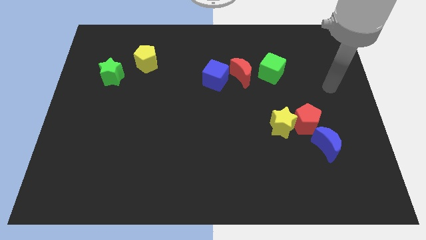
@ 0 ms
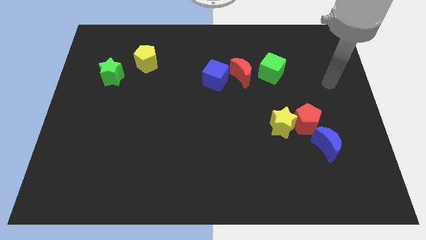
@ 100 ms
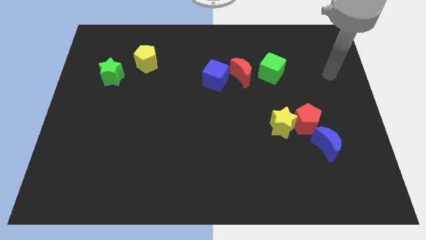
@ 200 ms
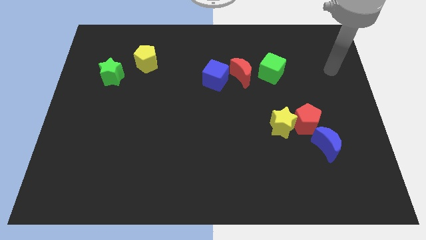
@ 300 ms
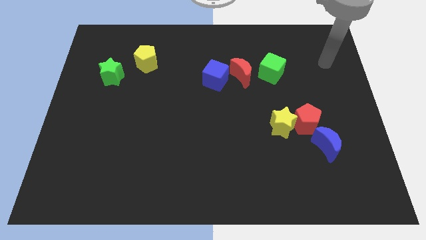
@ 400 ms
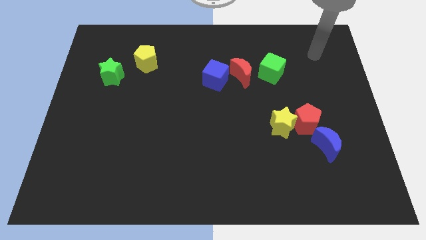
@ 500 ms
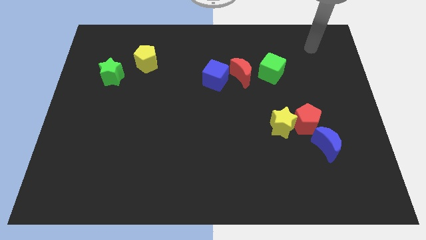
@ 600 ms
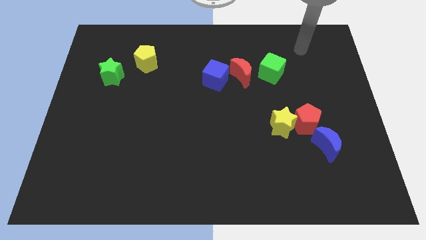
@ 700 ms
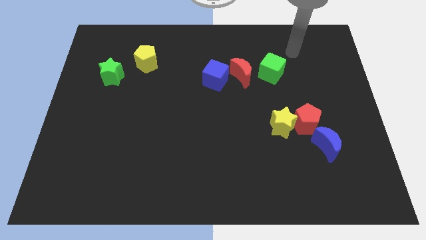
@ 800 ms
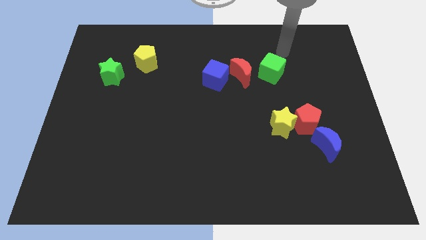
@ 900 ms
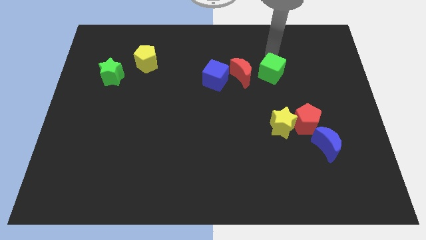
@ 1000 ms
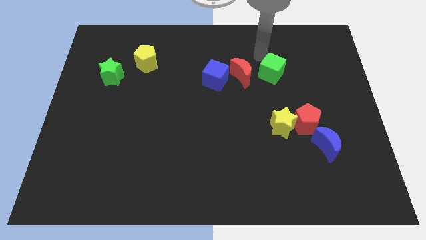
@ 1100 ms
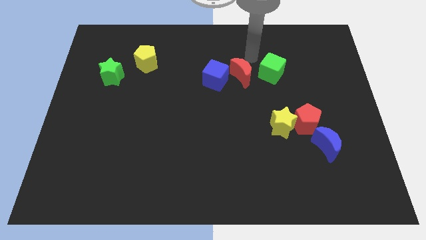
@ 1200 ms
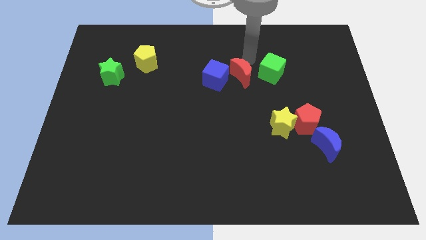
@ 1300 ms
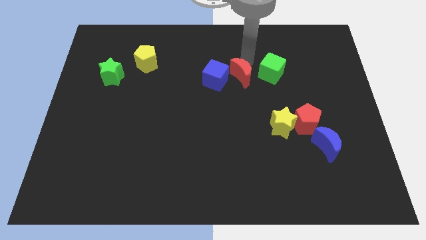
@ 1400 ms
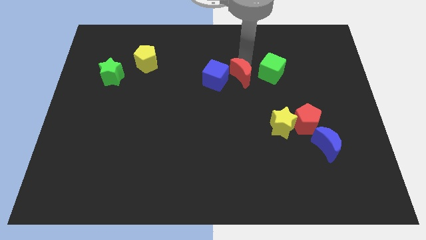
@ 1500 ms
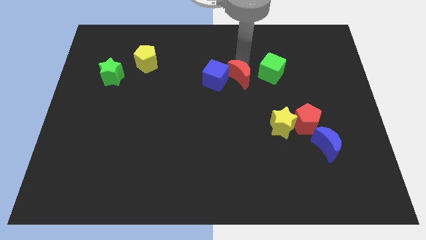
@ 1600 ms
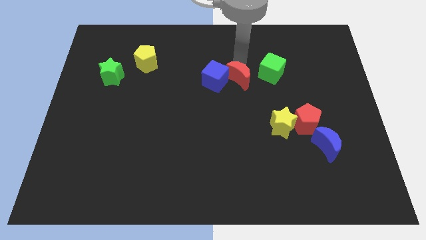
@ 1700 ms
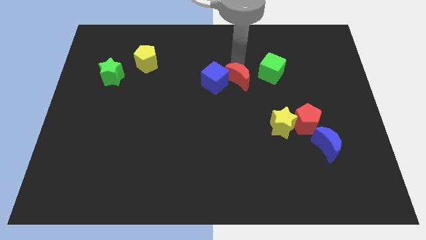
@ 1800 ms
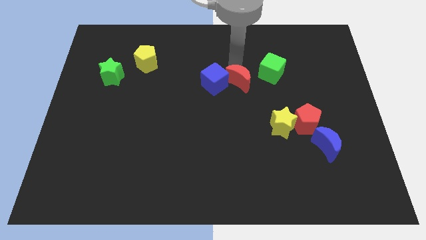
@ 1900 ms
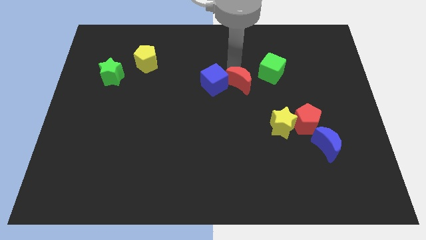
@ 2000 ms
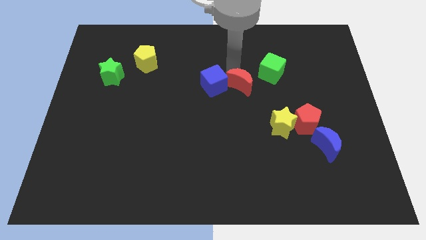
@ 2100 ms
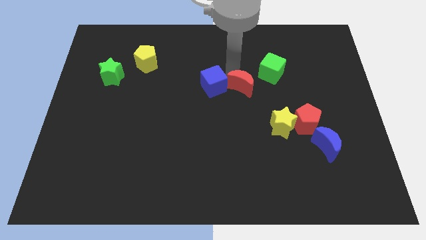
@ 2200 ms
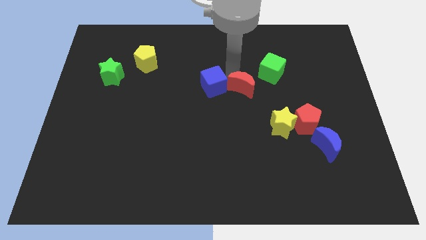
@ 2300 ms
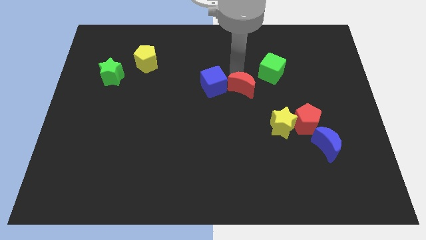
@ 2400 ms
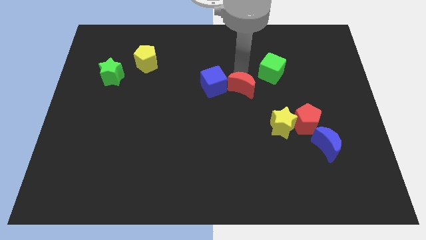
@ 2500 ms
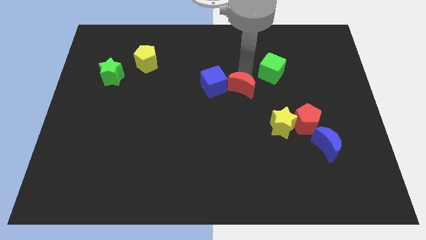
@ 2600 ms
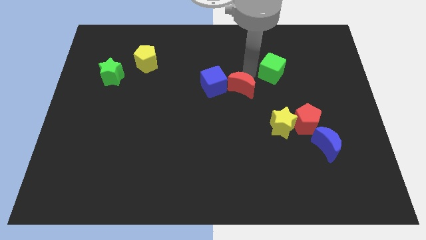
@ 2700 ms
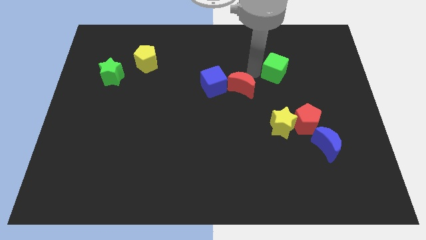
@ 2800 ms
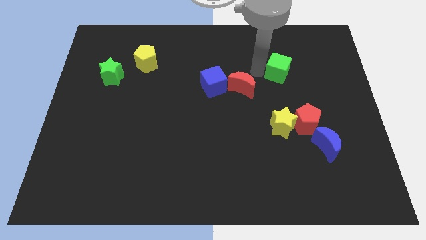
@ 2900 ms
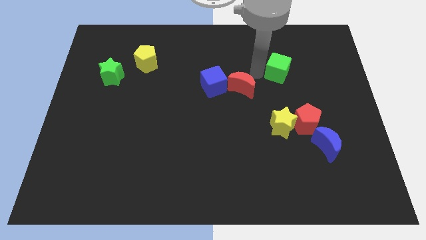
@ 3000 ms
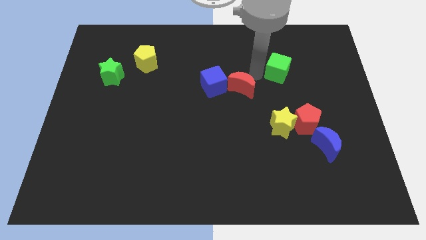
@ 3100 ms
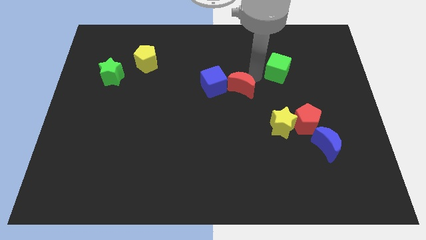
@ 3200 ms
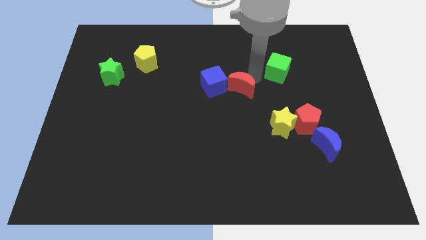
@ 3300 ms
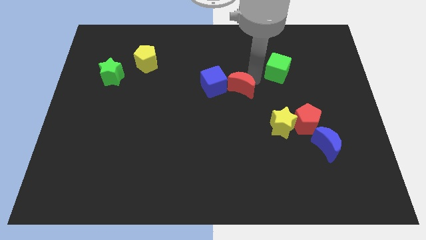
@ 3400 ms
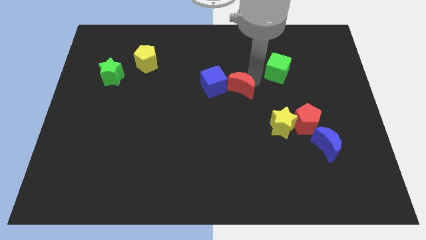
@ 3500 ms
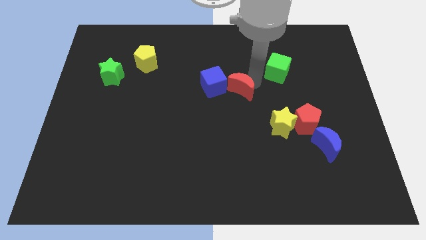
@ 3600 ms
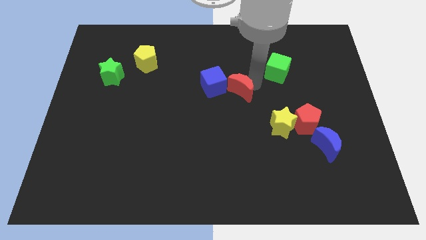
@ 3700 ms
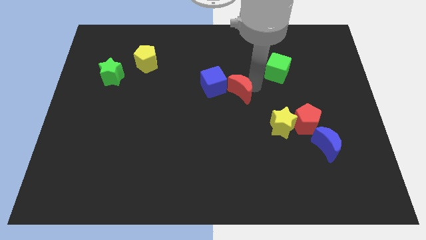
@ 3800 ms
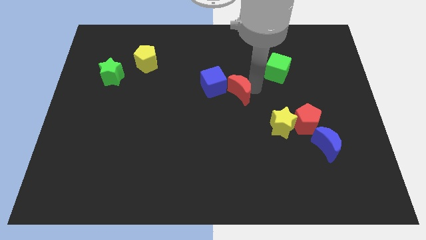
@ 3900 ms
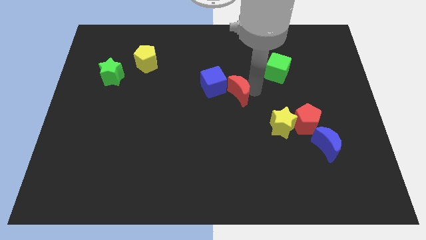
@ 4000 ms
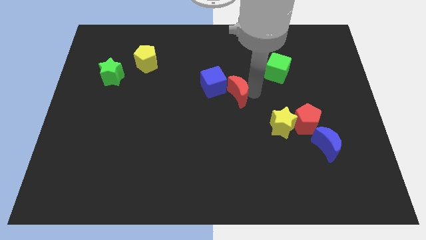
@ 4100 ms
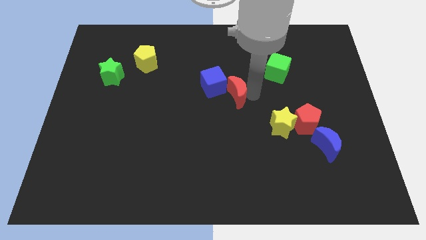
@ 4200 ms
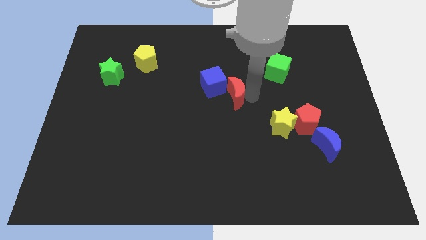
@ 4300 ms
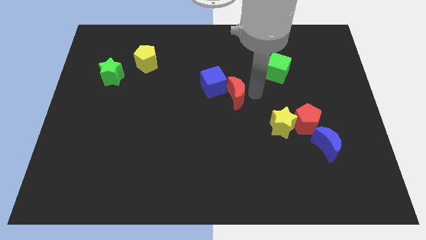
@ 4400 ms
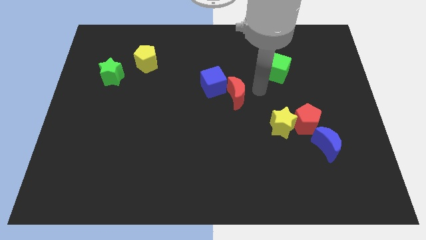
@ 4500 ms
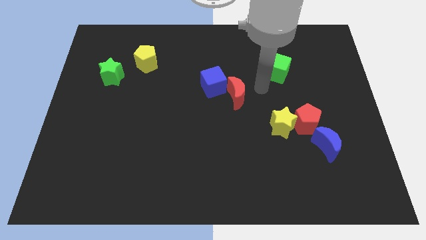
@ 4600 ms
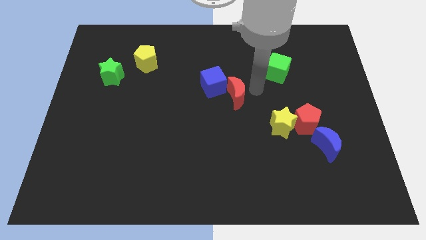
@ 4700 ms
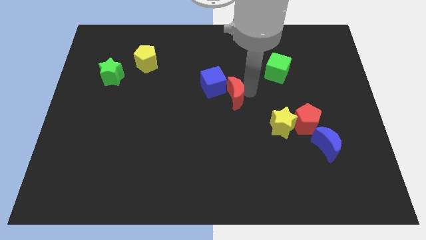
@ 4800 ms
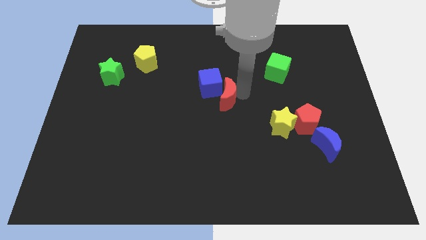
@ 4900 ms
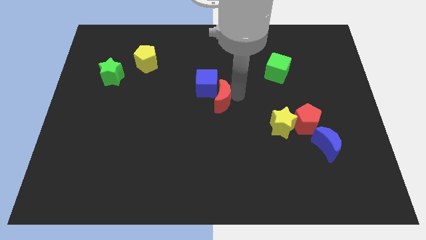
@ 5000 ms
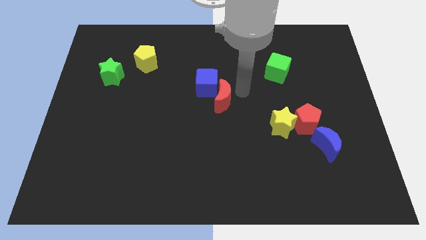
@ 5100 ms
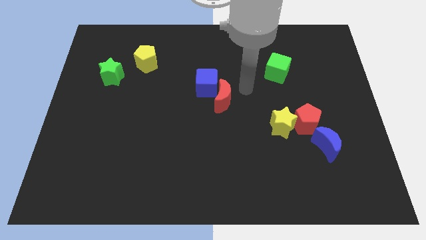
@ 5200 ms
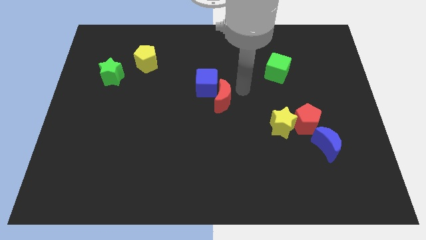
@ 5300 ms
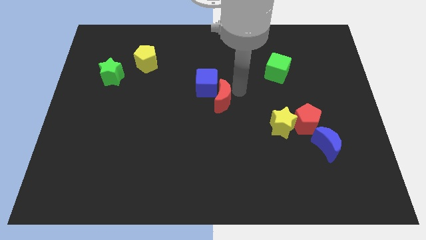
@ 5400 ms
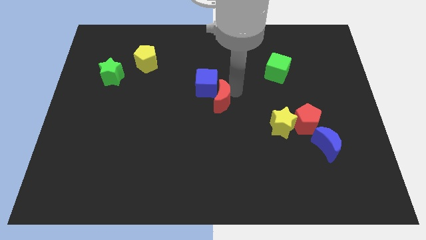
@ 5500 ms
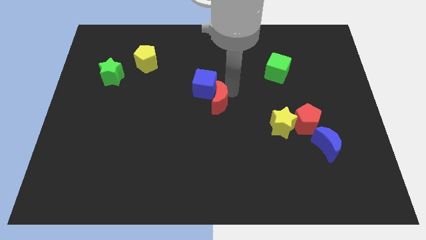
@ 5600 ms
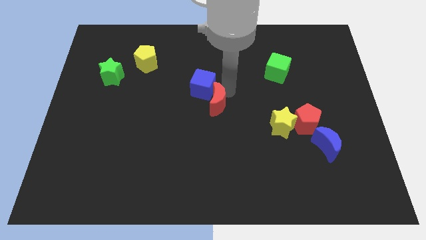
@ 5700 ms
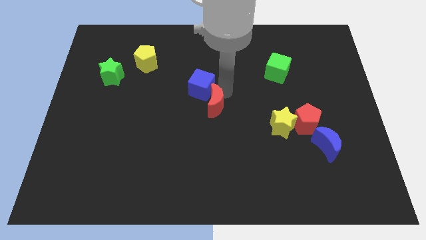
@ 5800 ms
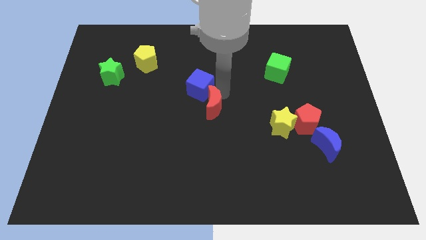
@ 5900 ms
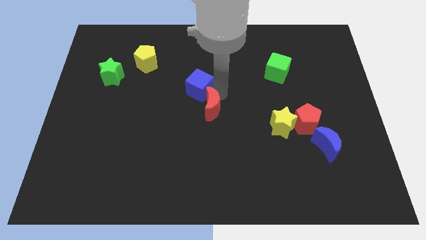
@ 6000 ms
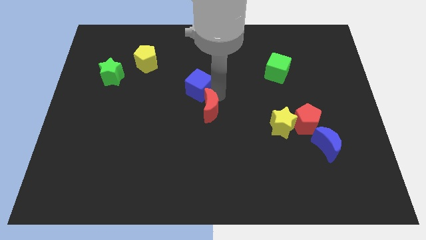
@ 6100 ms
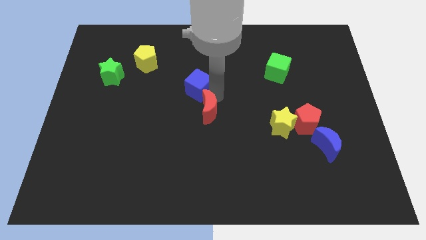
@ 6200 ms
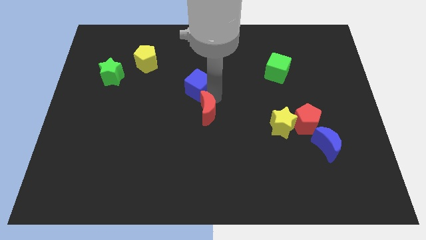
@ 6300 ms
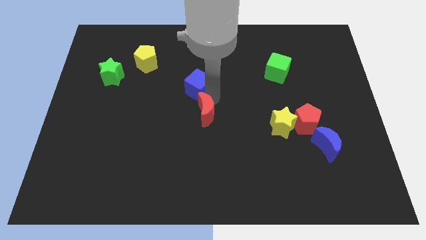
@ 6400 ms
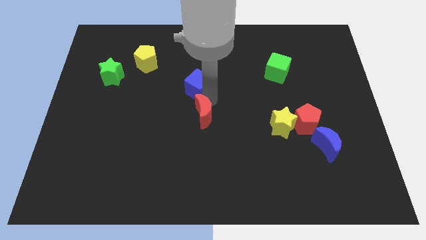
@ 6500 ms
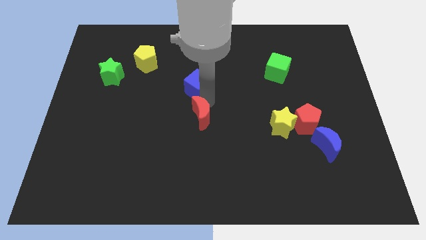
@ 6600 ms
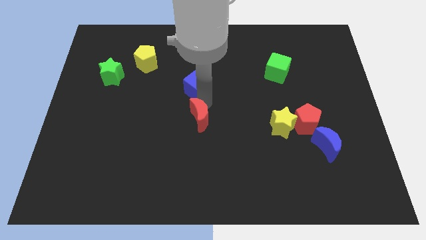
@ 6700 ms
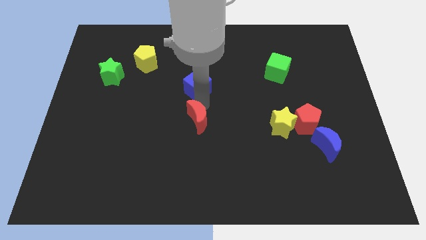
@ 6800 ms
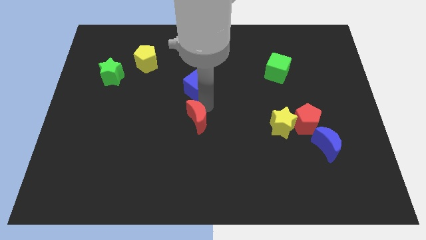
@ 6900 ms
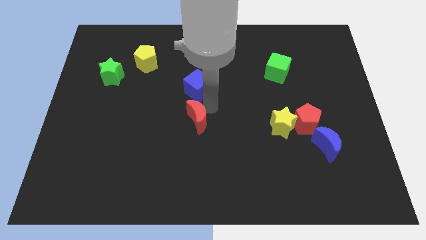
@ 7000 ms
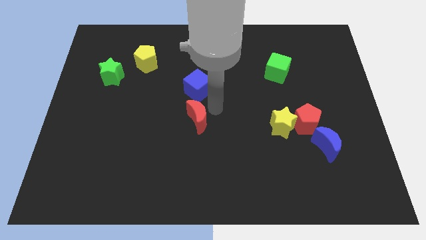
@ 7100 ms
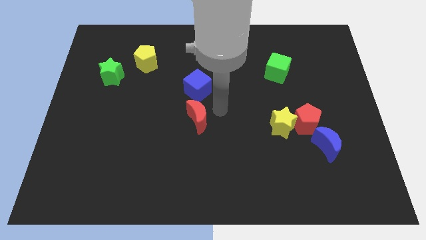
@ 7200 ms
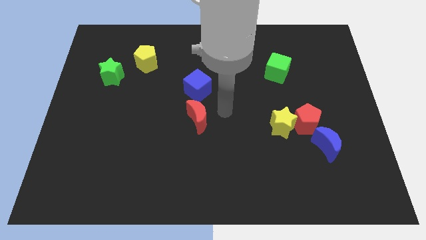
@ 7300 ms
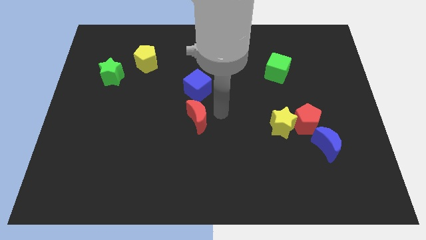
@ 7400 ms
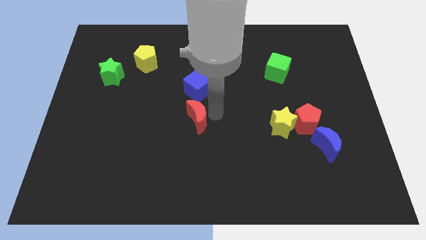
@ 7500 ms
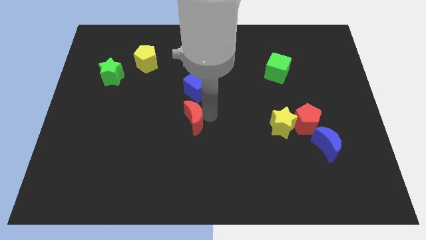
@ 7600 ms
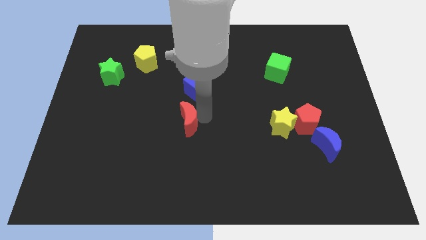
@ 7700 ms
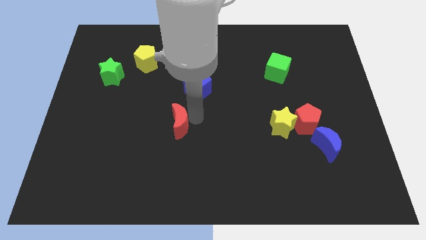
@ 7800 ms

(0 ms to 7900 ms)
push the red moon down and to the left

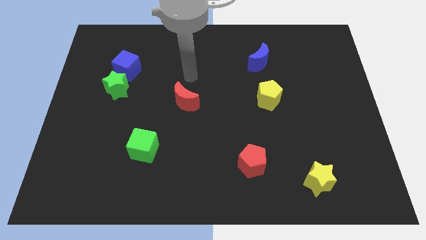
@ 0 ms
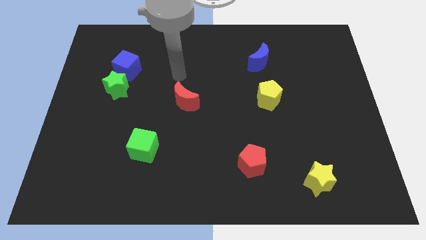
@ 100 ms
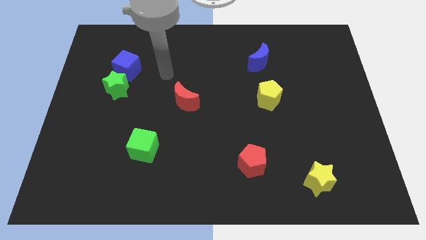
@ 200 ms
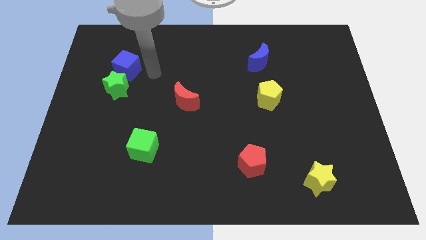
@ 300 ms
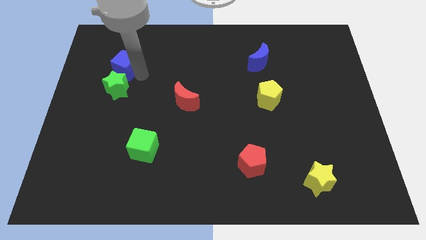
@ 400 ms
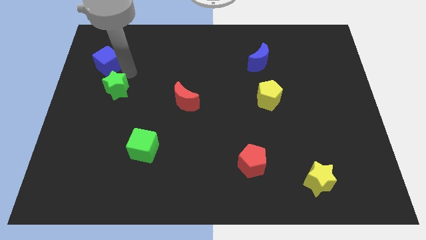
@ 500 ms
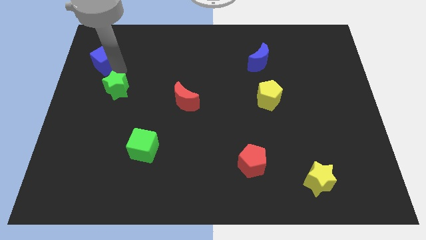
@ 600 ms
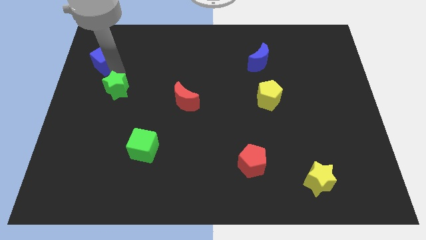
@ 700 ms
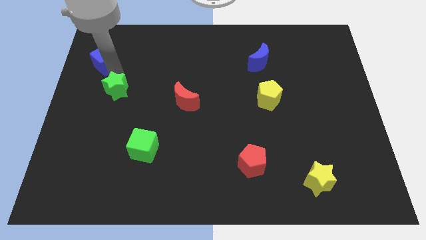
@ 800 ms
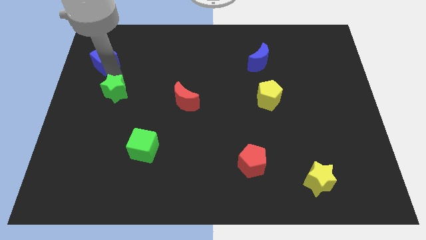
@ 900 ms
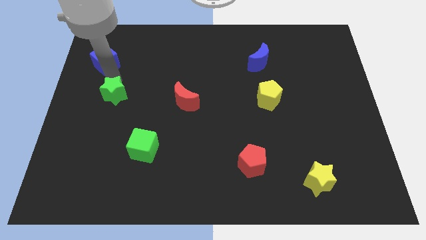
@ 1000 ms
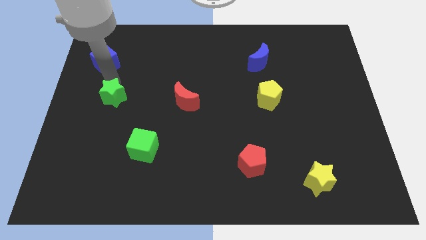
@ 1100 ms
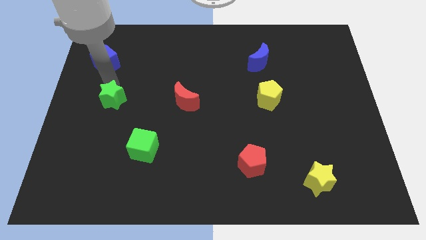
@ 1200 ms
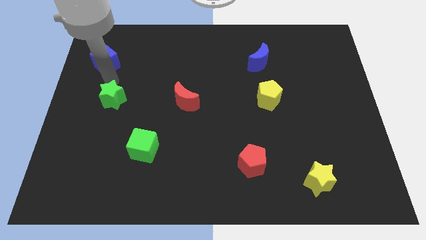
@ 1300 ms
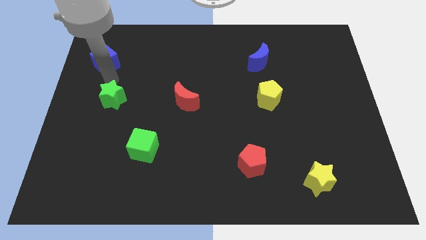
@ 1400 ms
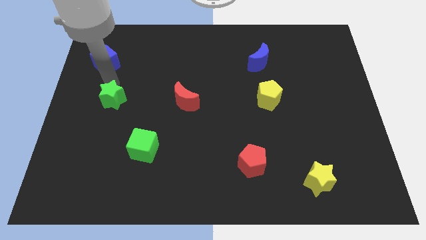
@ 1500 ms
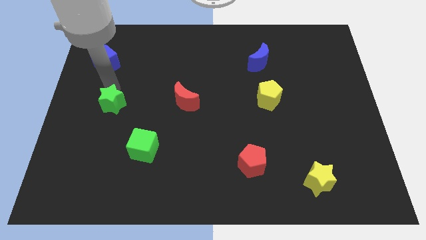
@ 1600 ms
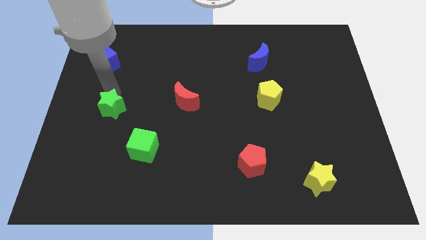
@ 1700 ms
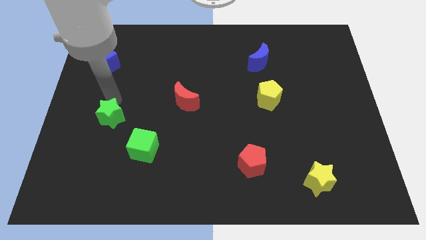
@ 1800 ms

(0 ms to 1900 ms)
move the green star down a bit
